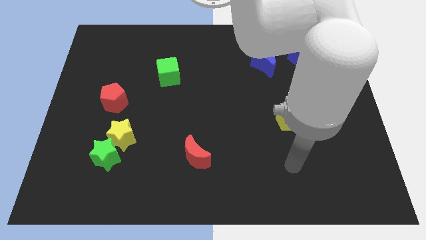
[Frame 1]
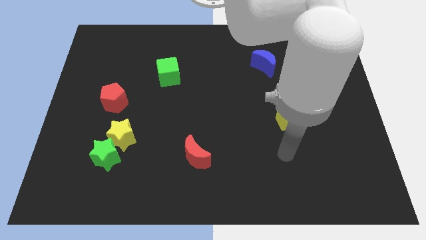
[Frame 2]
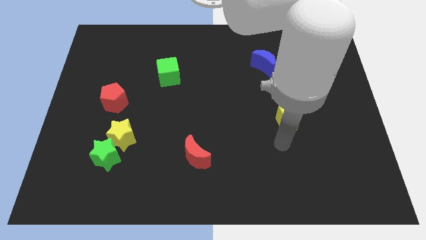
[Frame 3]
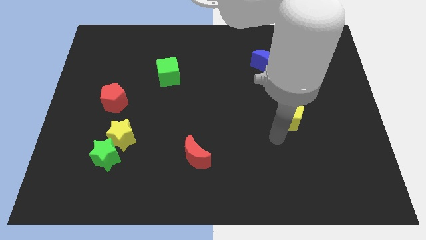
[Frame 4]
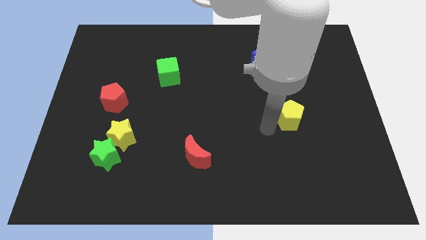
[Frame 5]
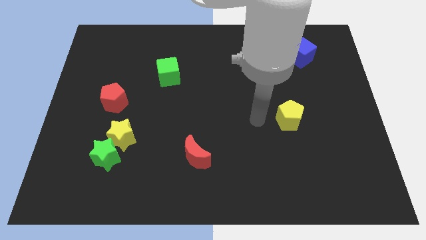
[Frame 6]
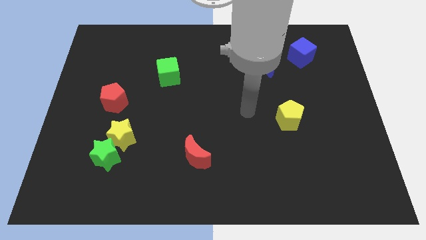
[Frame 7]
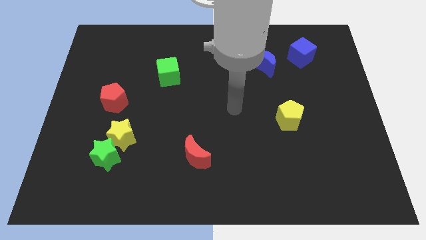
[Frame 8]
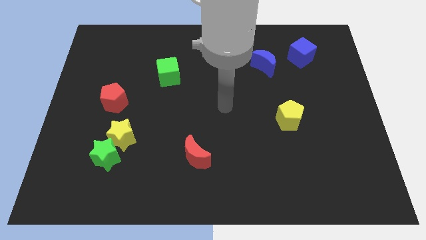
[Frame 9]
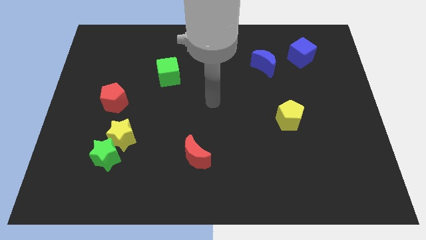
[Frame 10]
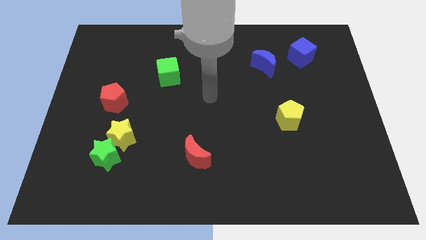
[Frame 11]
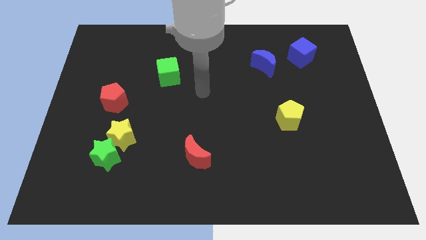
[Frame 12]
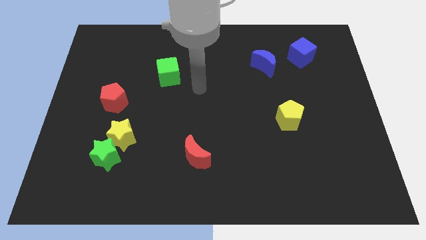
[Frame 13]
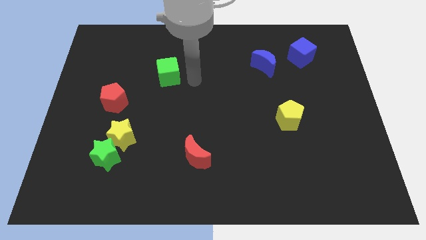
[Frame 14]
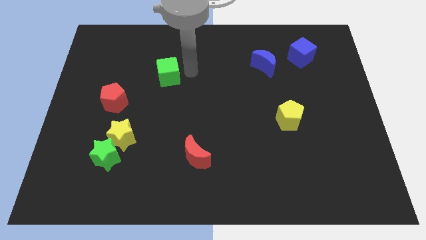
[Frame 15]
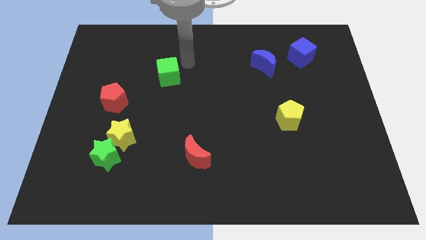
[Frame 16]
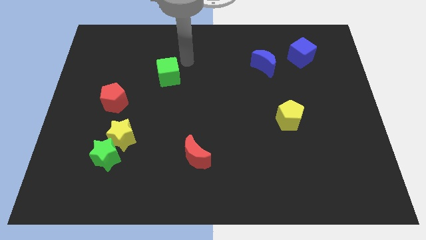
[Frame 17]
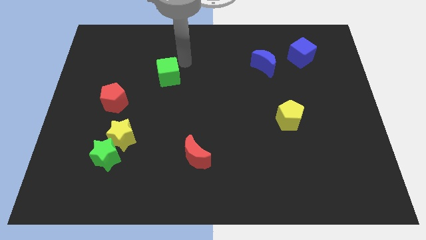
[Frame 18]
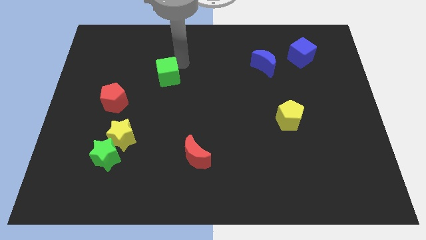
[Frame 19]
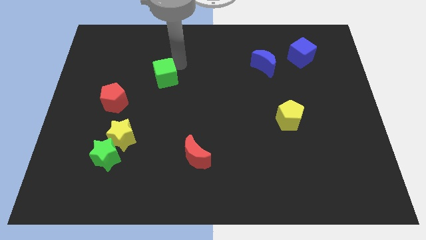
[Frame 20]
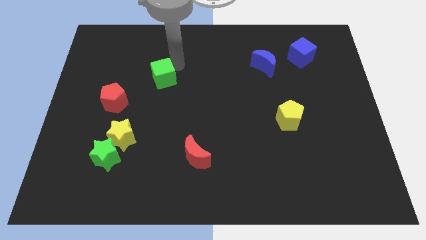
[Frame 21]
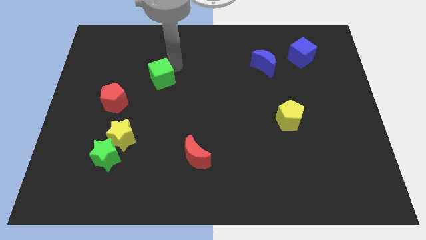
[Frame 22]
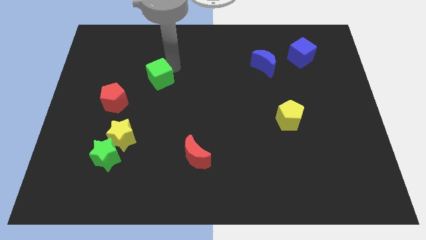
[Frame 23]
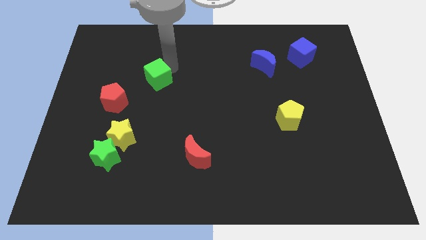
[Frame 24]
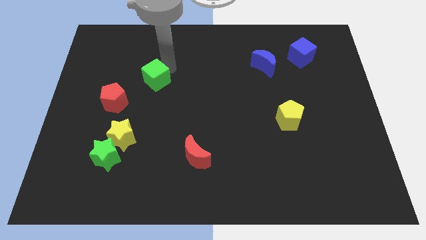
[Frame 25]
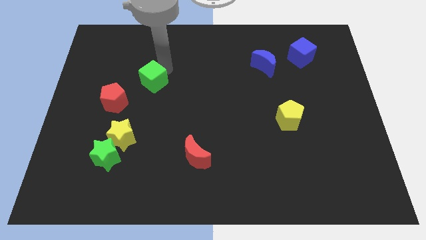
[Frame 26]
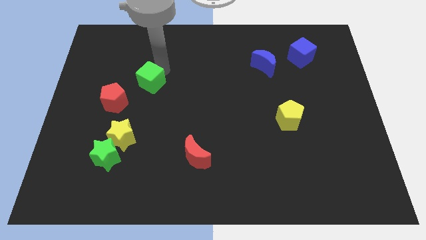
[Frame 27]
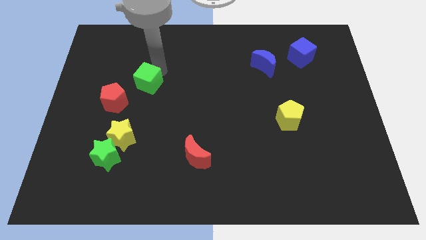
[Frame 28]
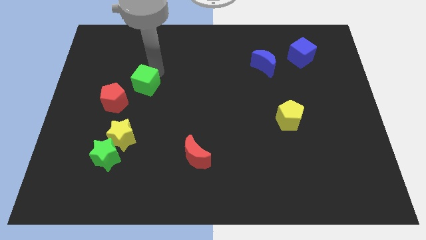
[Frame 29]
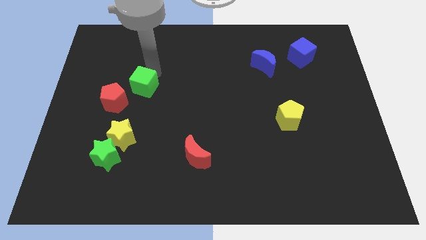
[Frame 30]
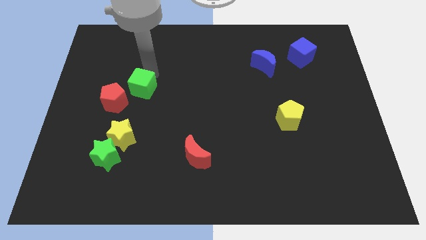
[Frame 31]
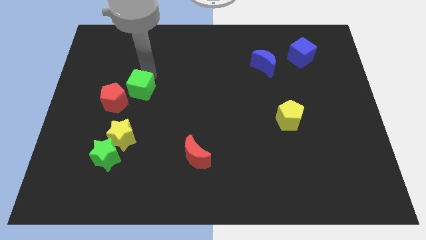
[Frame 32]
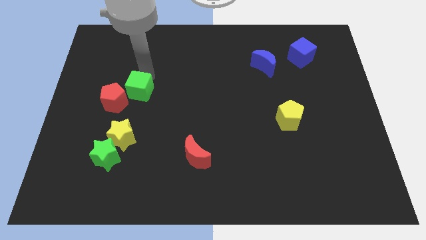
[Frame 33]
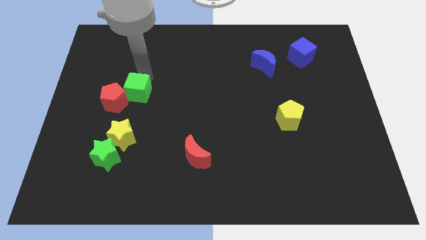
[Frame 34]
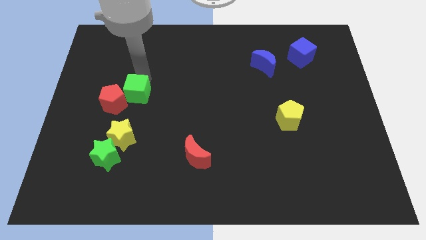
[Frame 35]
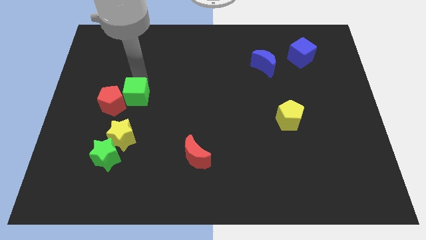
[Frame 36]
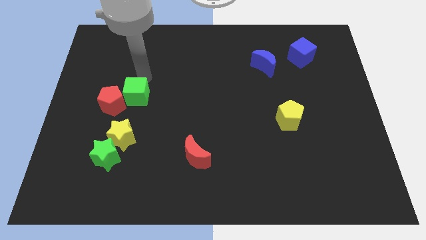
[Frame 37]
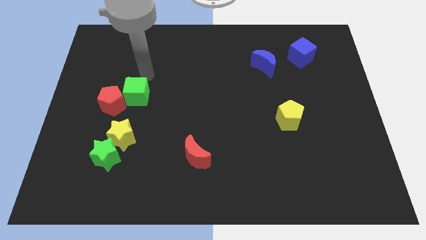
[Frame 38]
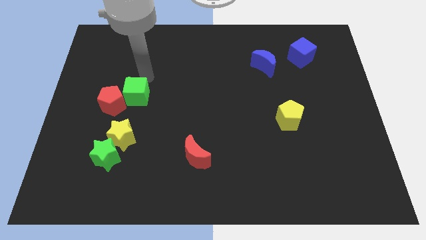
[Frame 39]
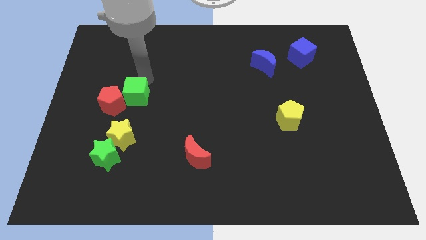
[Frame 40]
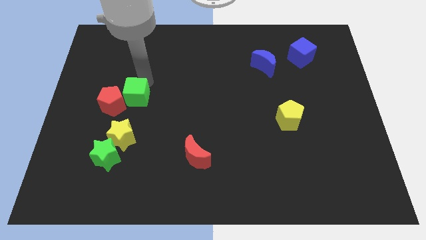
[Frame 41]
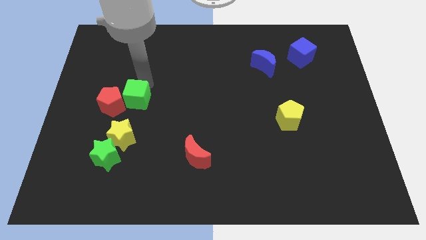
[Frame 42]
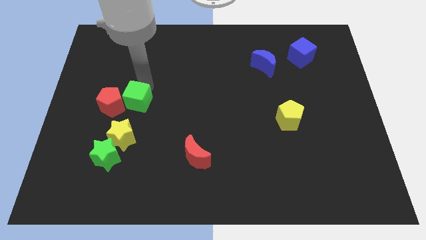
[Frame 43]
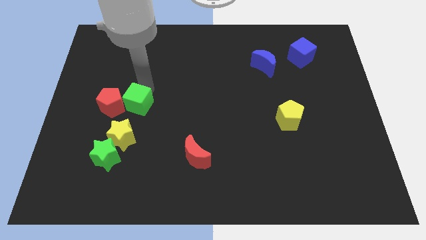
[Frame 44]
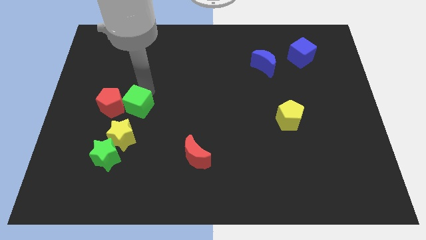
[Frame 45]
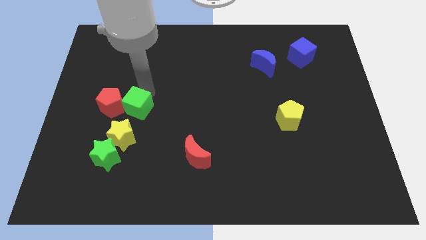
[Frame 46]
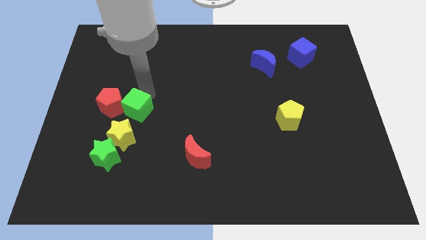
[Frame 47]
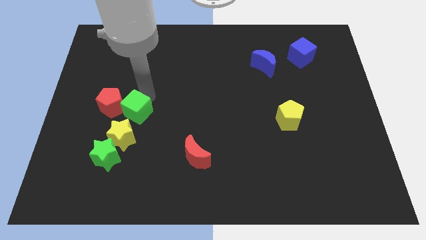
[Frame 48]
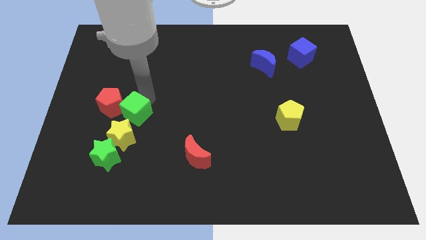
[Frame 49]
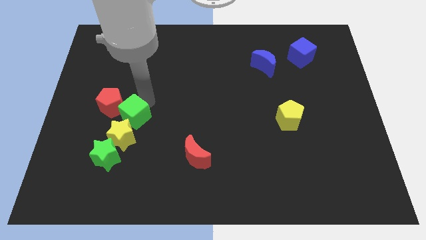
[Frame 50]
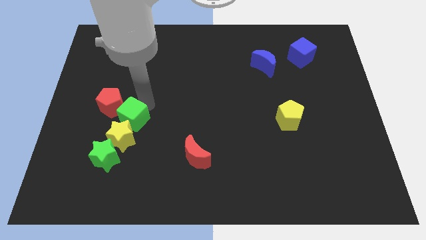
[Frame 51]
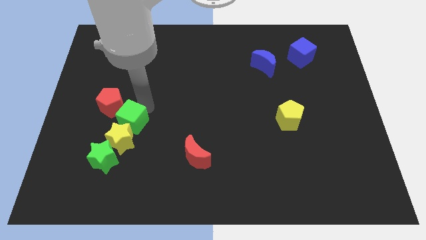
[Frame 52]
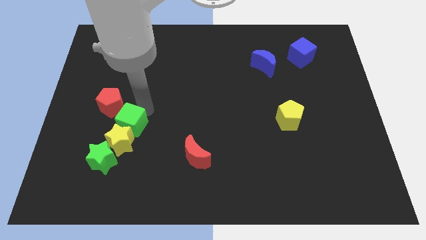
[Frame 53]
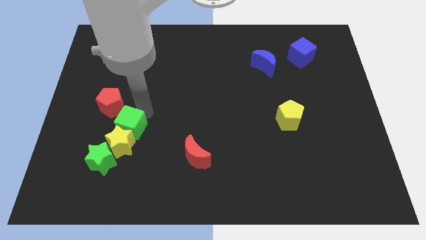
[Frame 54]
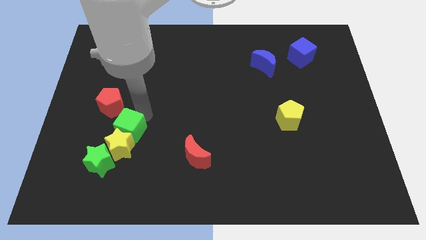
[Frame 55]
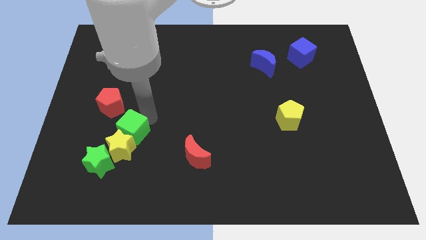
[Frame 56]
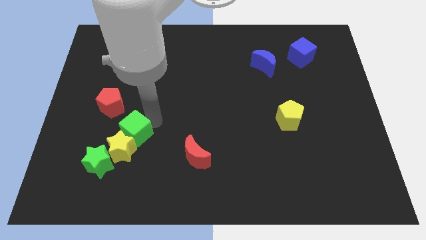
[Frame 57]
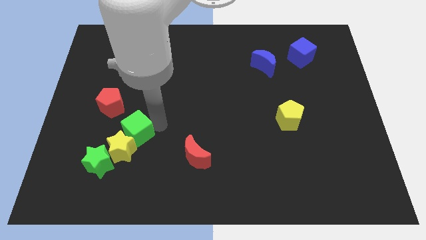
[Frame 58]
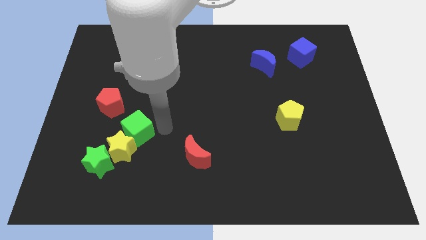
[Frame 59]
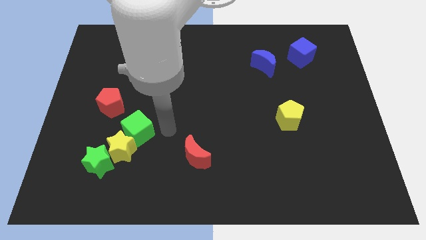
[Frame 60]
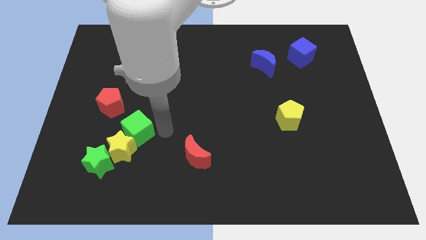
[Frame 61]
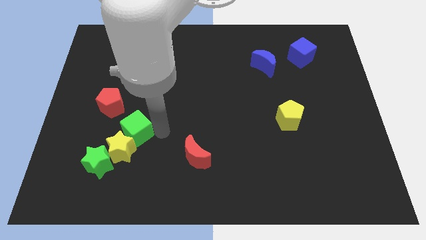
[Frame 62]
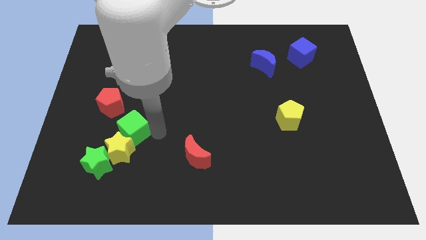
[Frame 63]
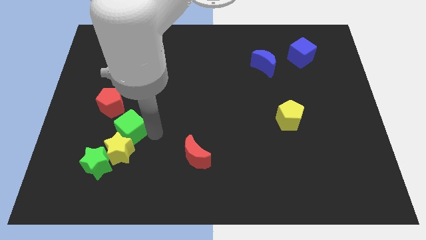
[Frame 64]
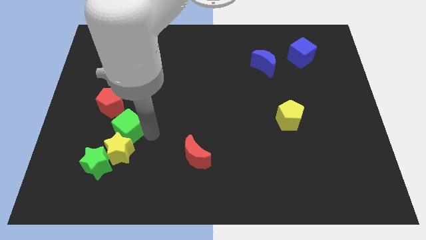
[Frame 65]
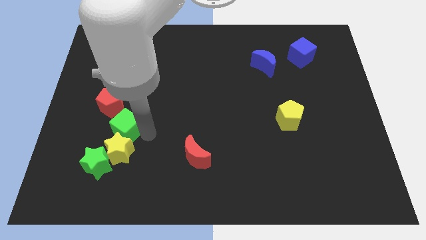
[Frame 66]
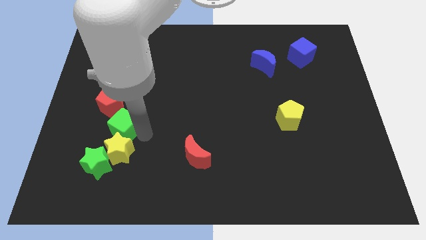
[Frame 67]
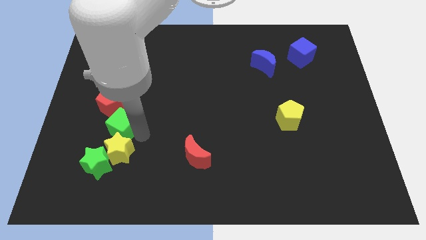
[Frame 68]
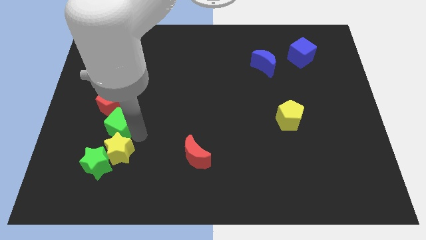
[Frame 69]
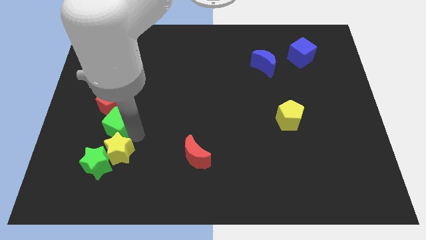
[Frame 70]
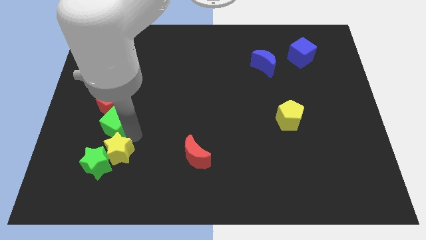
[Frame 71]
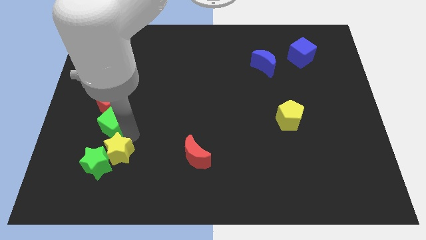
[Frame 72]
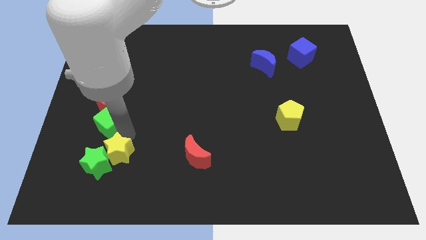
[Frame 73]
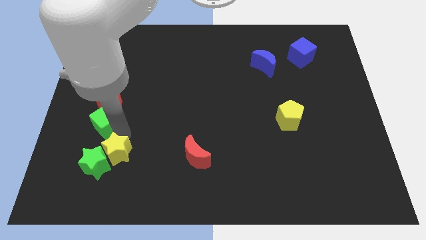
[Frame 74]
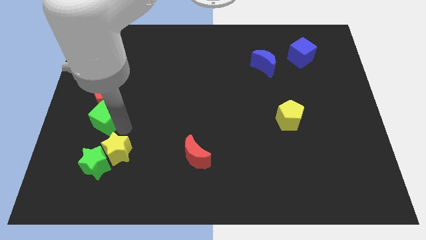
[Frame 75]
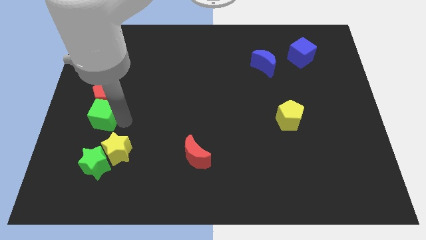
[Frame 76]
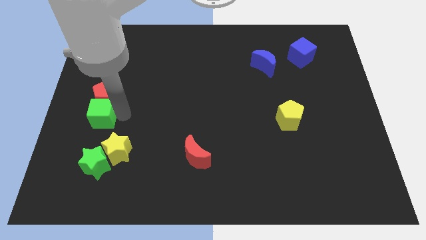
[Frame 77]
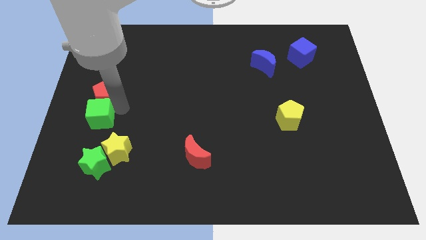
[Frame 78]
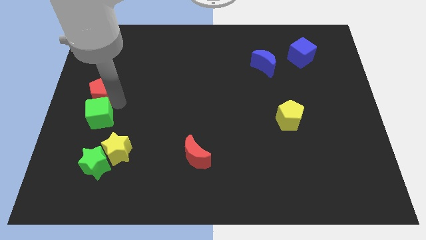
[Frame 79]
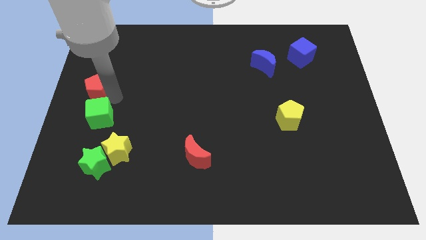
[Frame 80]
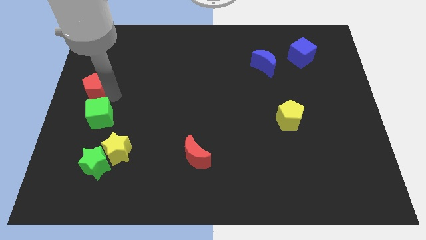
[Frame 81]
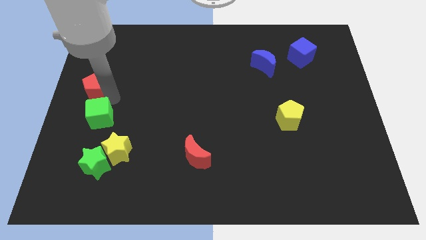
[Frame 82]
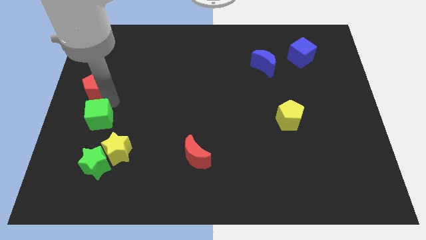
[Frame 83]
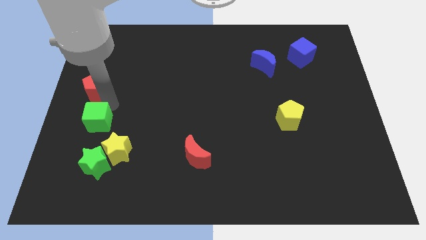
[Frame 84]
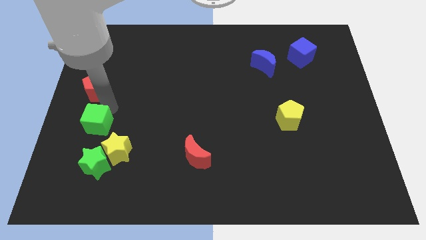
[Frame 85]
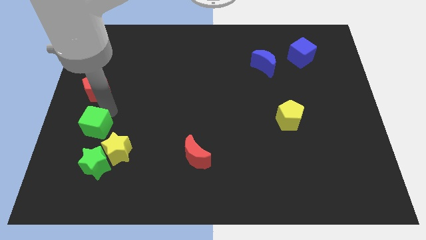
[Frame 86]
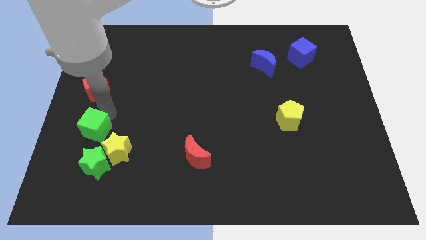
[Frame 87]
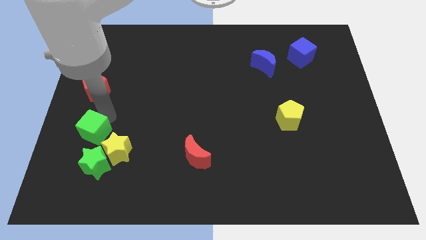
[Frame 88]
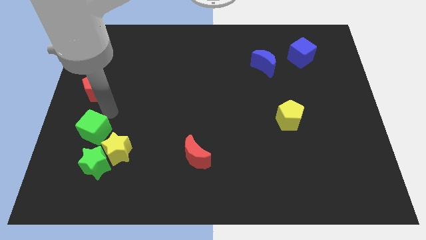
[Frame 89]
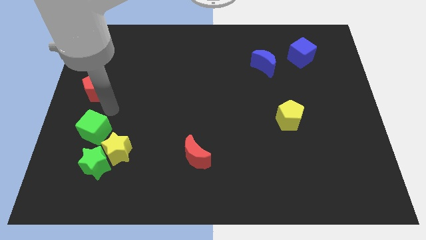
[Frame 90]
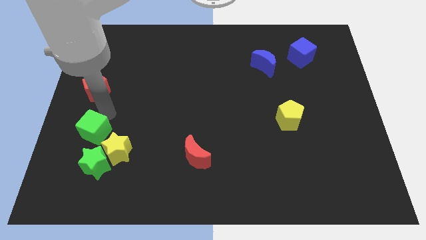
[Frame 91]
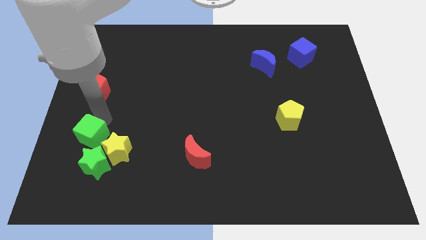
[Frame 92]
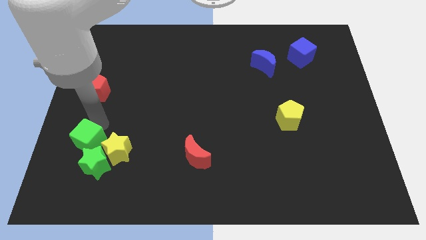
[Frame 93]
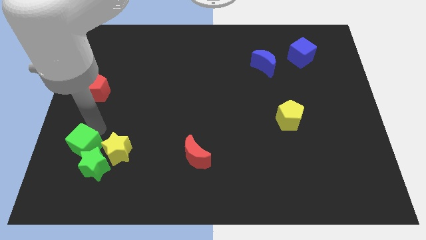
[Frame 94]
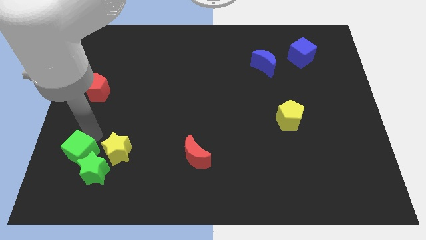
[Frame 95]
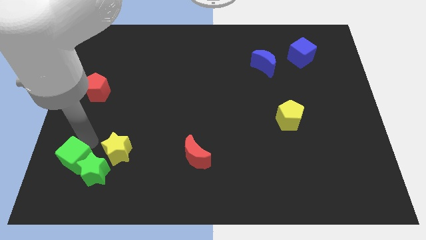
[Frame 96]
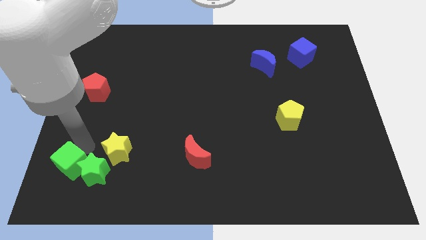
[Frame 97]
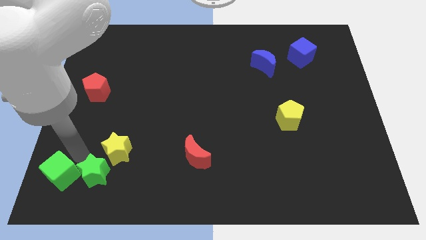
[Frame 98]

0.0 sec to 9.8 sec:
put the green cube to the bottom left corner
